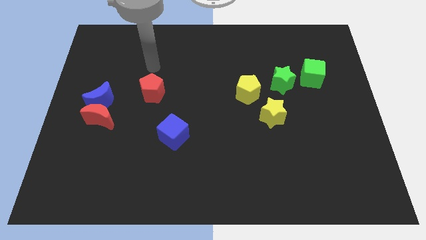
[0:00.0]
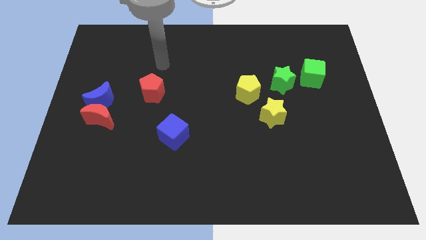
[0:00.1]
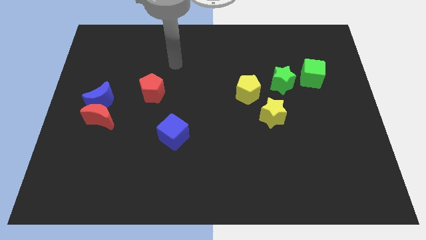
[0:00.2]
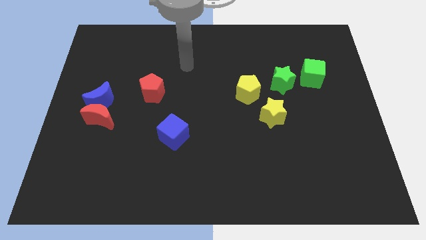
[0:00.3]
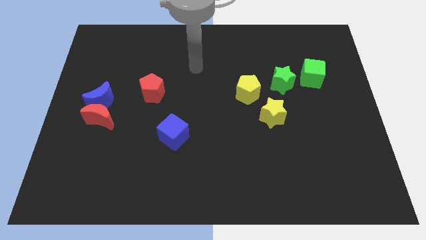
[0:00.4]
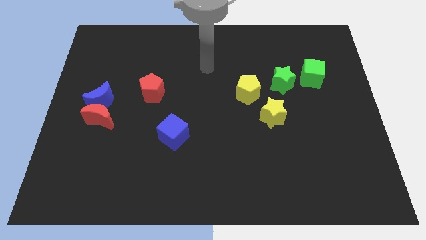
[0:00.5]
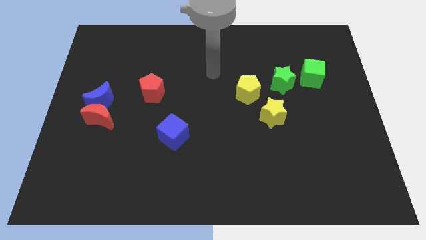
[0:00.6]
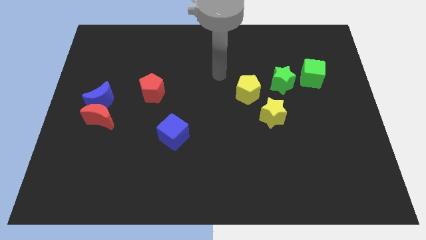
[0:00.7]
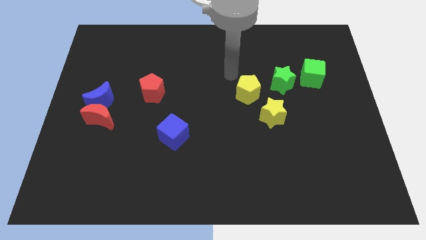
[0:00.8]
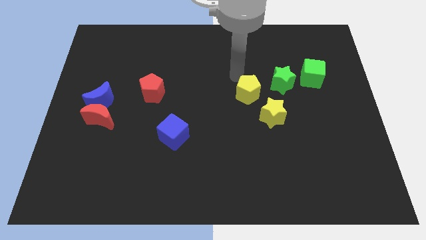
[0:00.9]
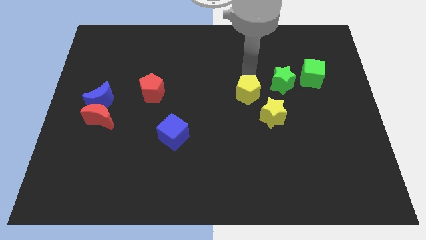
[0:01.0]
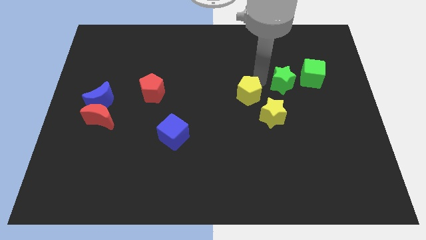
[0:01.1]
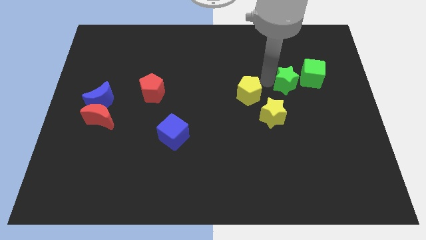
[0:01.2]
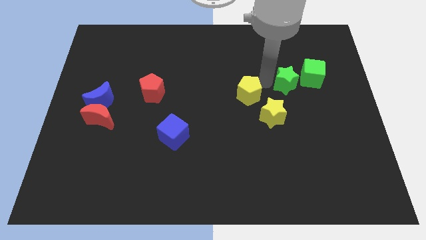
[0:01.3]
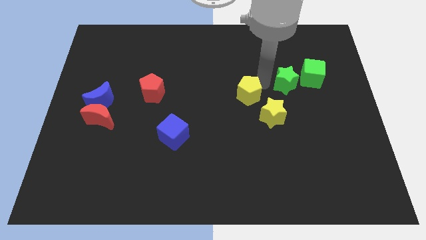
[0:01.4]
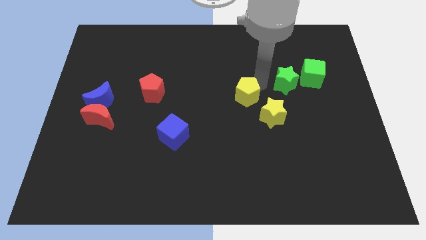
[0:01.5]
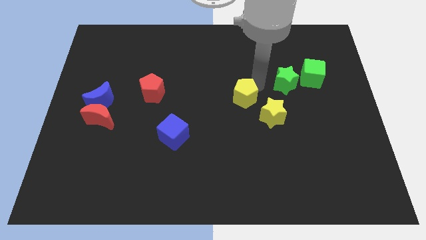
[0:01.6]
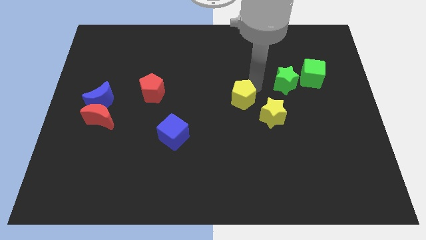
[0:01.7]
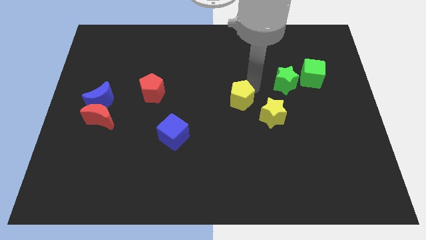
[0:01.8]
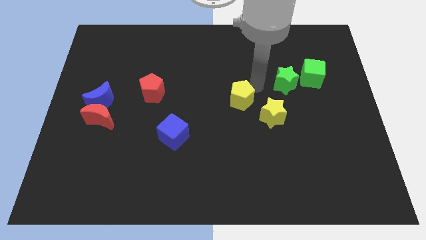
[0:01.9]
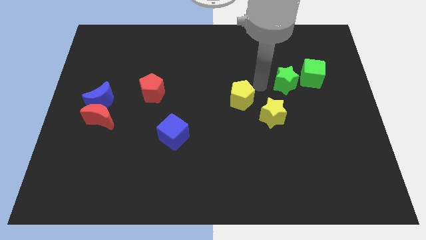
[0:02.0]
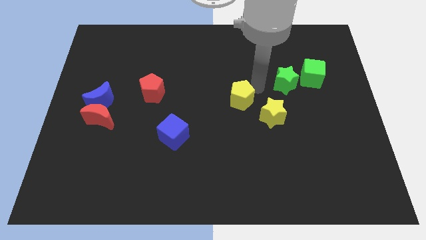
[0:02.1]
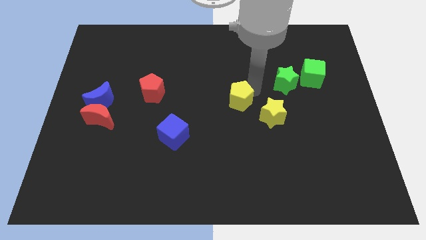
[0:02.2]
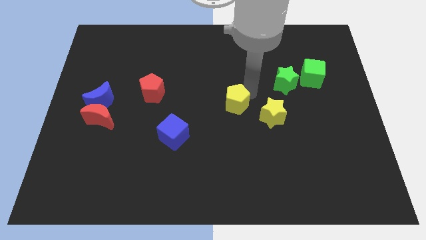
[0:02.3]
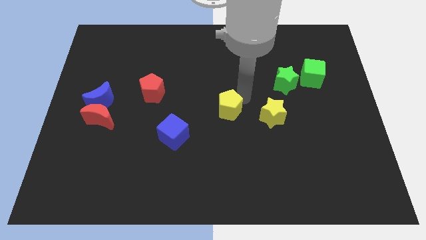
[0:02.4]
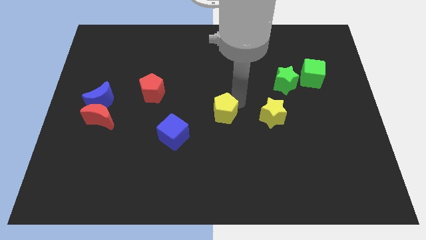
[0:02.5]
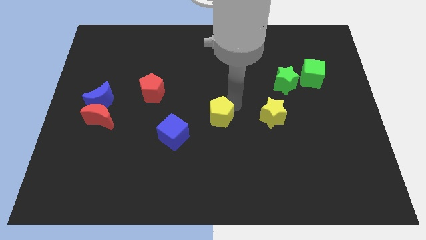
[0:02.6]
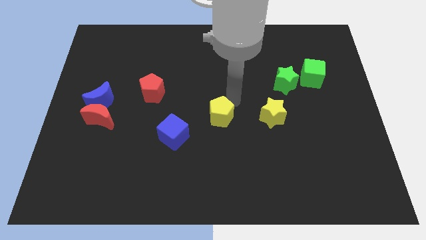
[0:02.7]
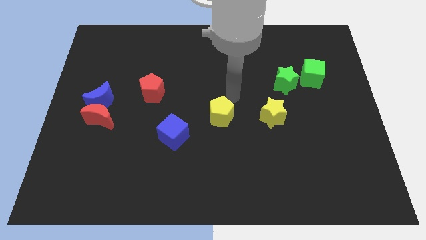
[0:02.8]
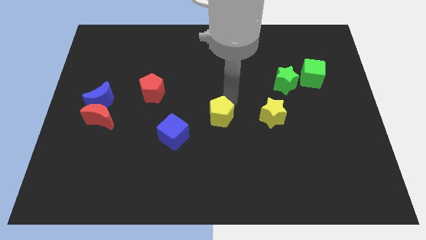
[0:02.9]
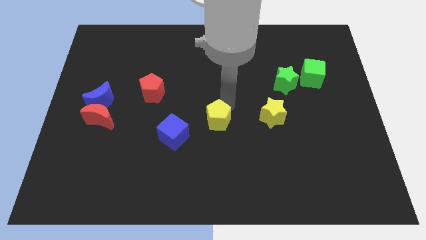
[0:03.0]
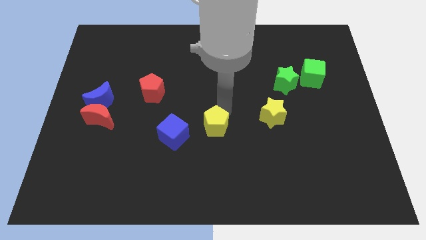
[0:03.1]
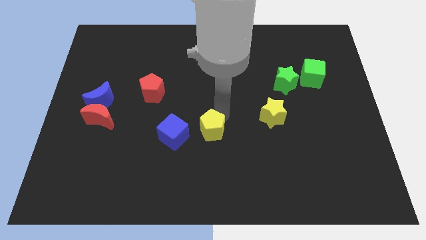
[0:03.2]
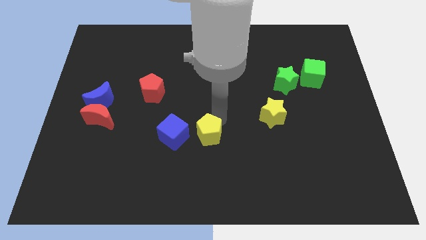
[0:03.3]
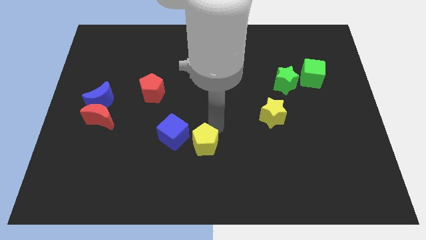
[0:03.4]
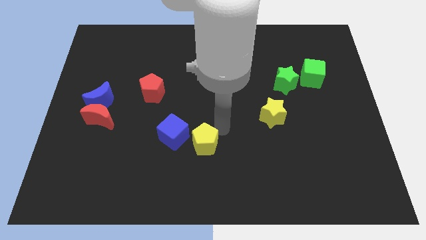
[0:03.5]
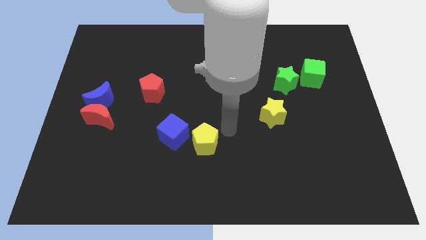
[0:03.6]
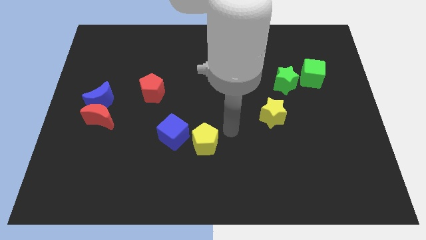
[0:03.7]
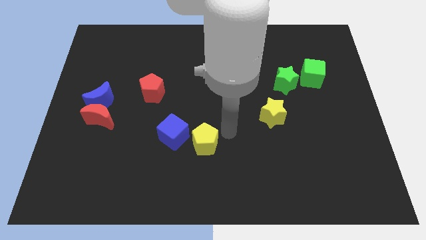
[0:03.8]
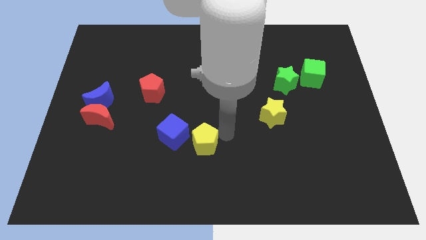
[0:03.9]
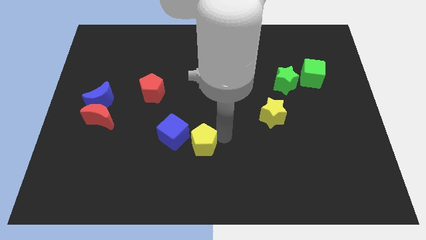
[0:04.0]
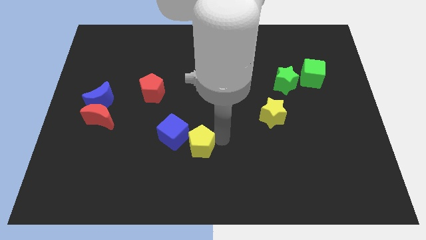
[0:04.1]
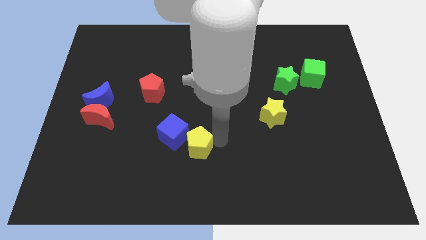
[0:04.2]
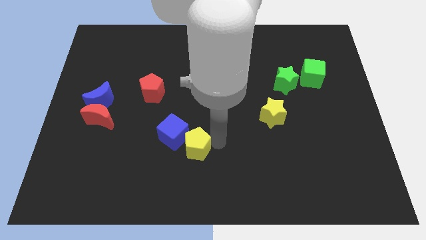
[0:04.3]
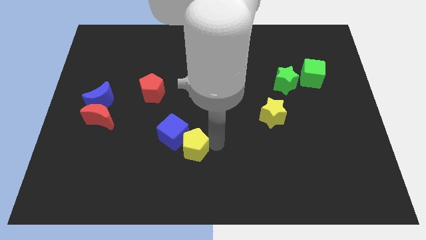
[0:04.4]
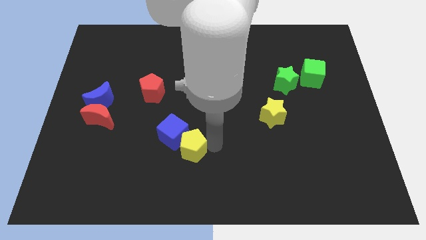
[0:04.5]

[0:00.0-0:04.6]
push the yellow pentagon diagonally downwards and left

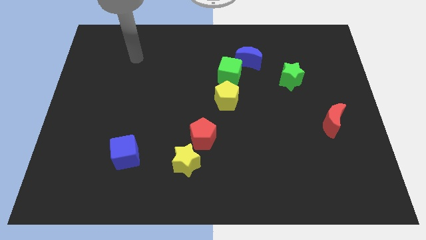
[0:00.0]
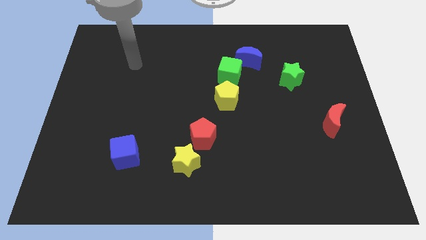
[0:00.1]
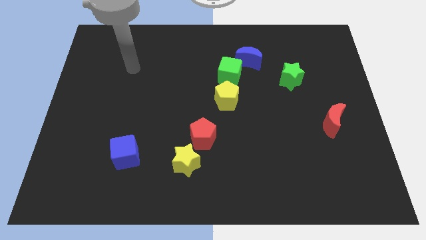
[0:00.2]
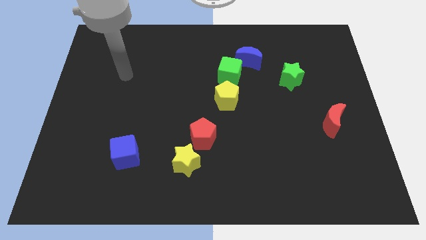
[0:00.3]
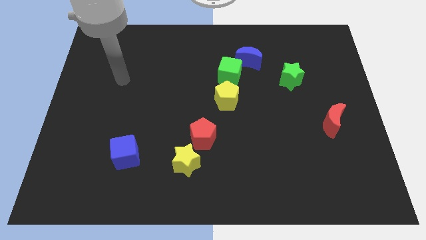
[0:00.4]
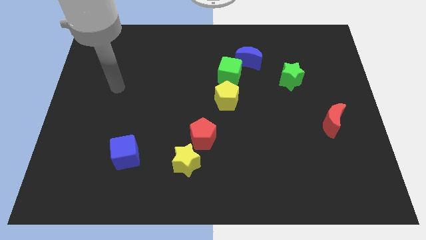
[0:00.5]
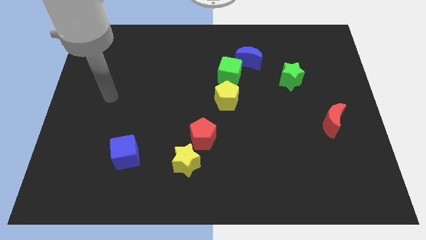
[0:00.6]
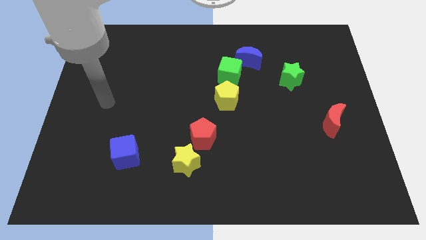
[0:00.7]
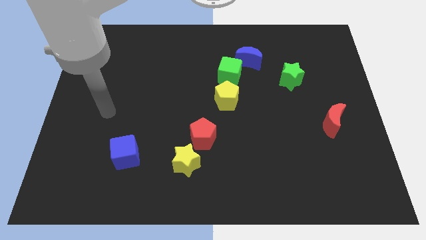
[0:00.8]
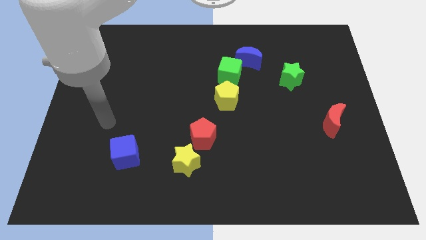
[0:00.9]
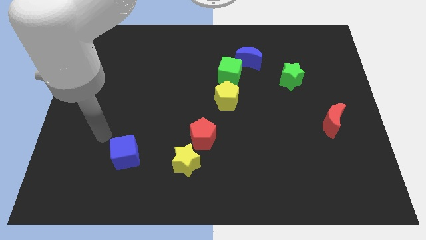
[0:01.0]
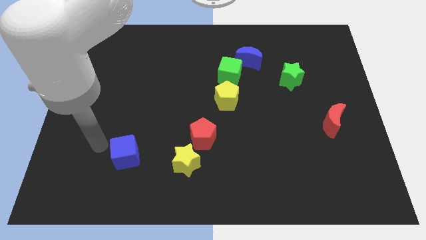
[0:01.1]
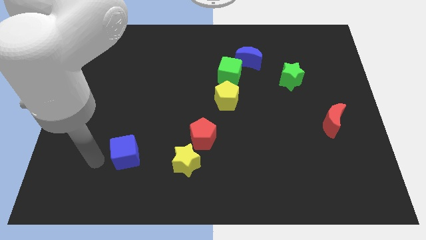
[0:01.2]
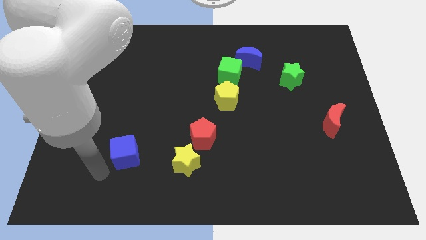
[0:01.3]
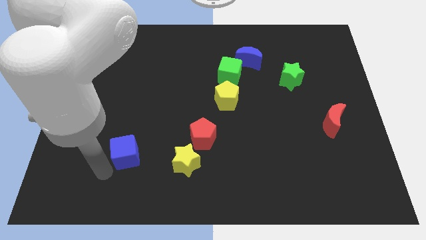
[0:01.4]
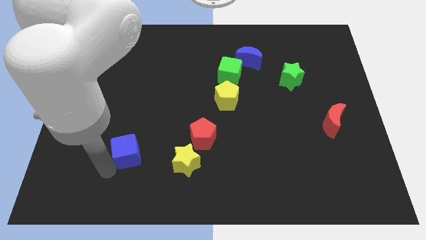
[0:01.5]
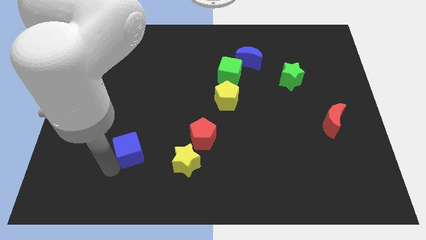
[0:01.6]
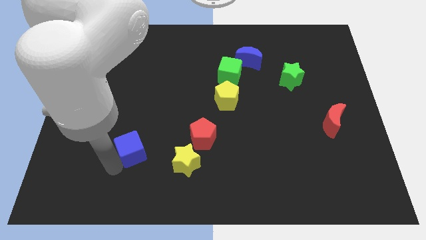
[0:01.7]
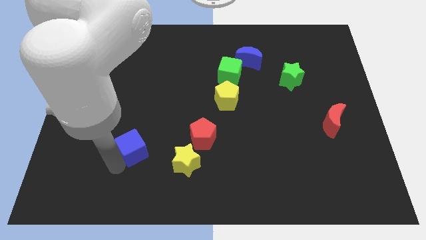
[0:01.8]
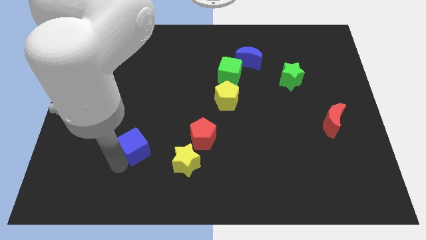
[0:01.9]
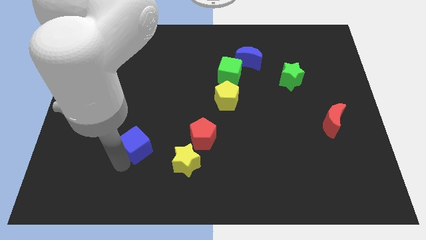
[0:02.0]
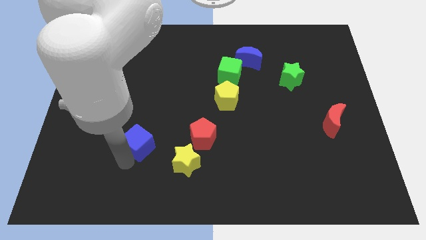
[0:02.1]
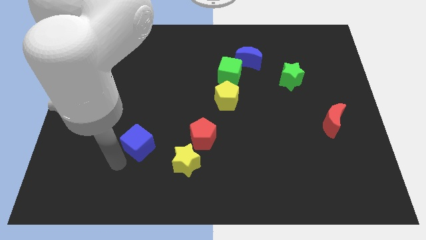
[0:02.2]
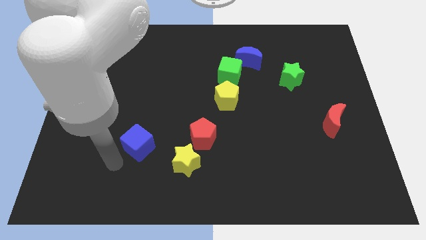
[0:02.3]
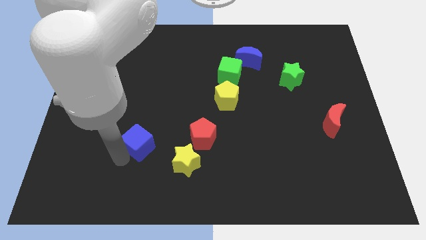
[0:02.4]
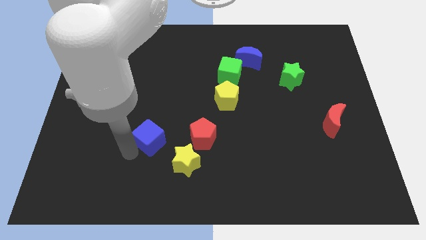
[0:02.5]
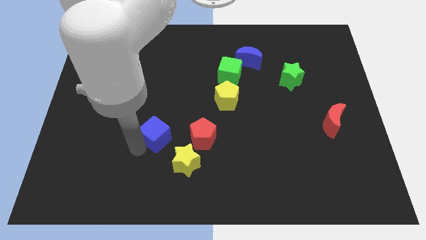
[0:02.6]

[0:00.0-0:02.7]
slide the blue cube a little bit diagonally up and right

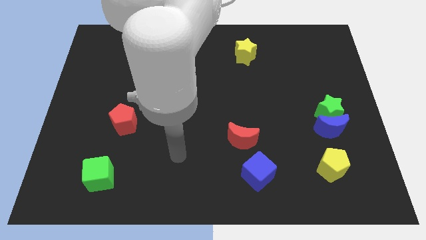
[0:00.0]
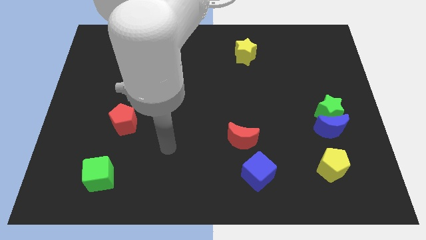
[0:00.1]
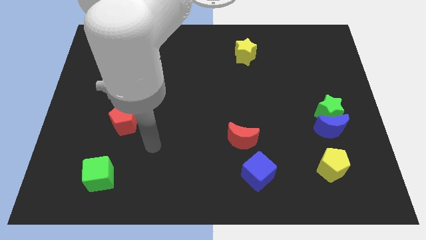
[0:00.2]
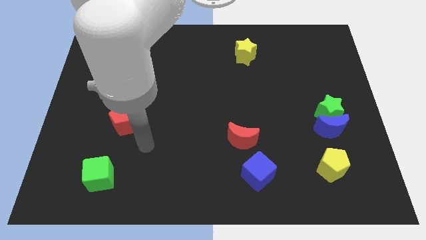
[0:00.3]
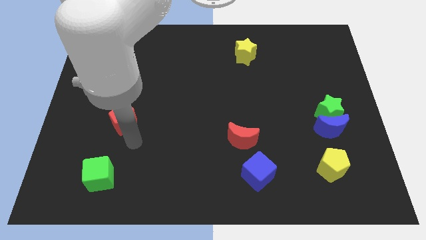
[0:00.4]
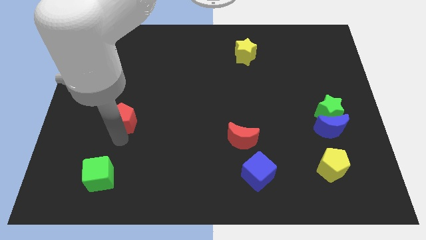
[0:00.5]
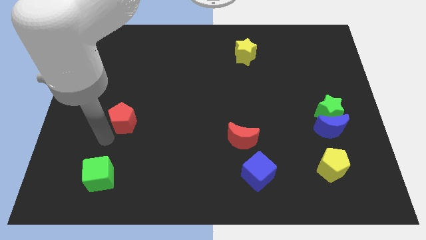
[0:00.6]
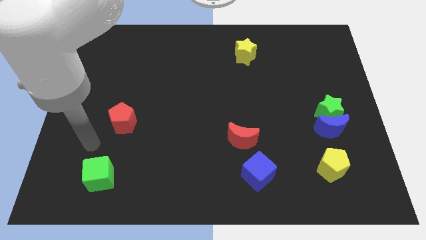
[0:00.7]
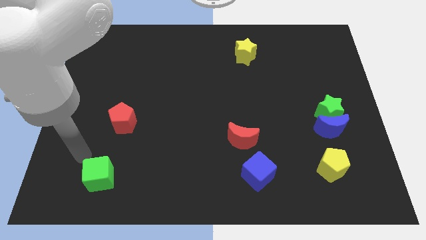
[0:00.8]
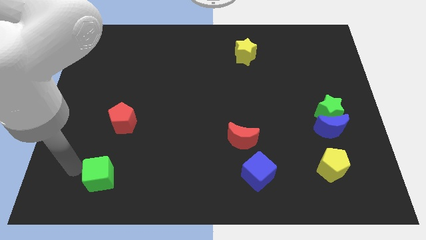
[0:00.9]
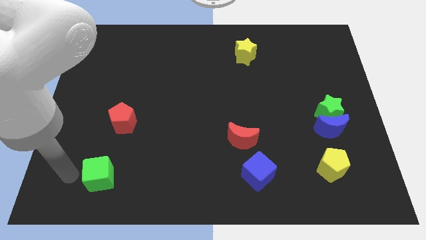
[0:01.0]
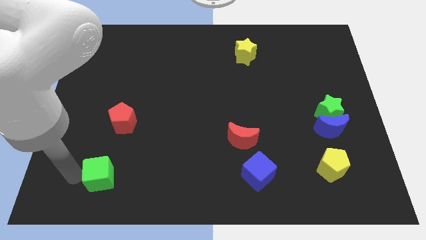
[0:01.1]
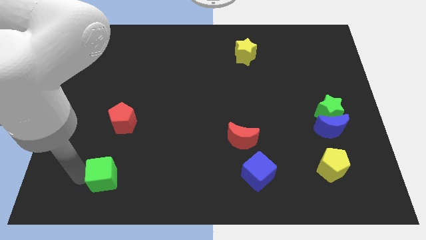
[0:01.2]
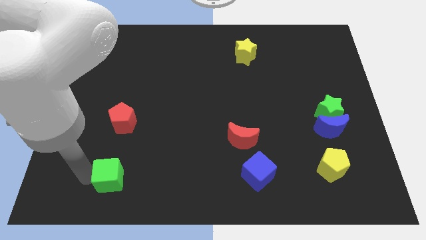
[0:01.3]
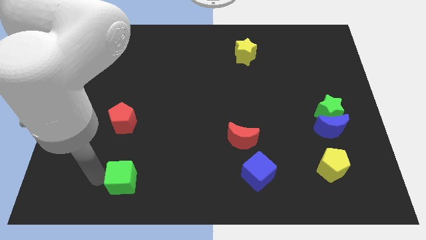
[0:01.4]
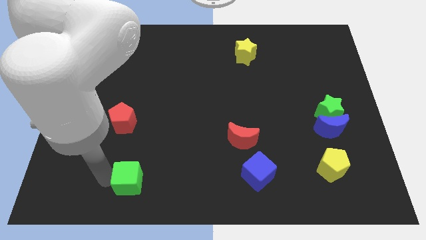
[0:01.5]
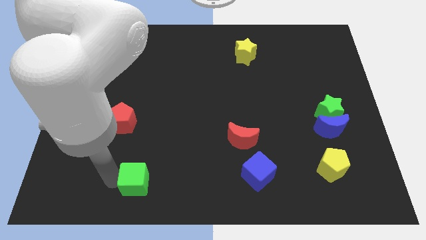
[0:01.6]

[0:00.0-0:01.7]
slightly slide the green cube right
